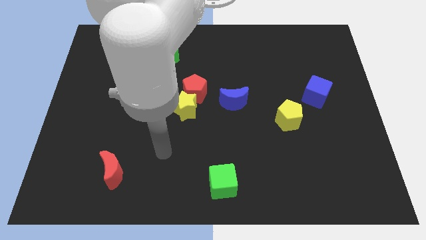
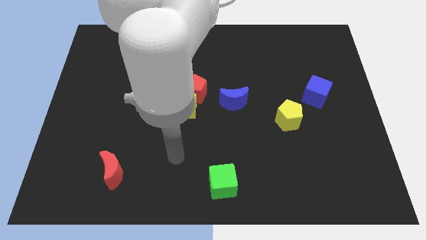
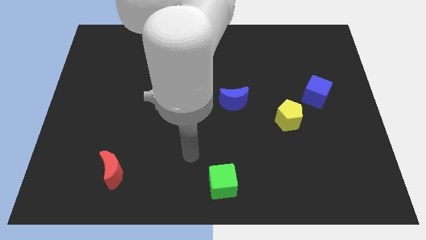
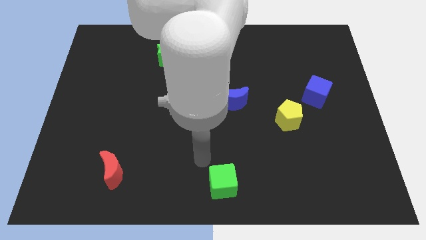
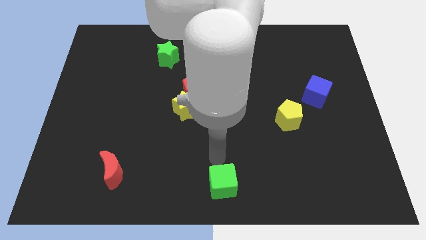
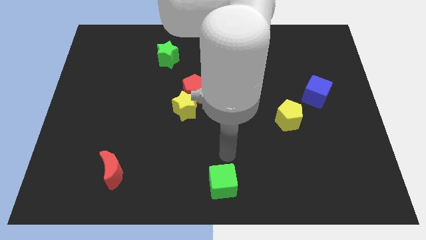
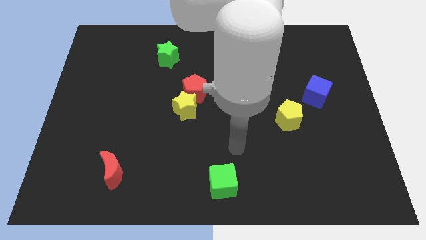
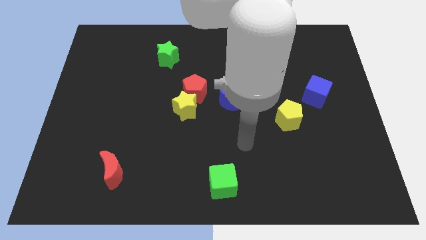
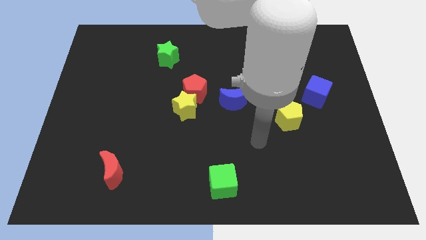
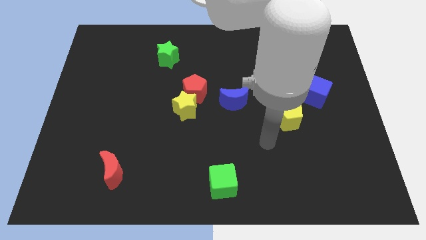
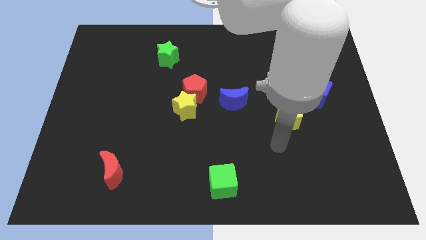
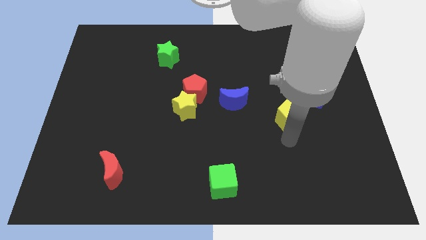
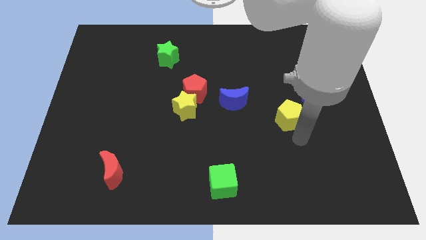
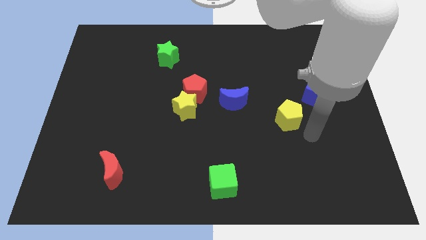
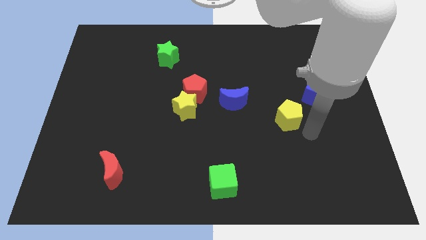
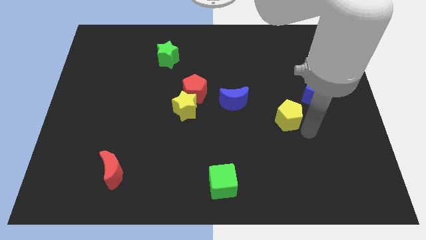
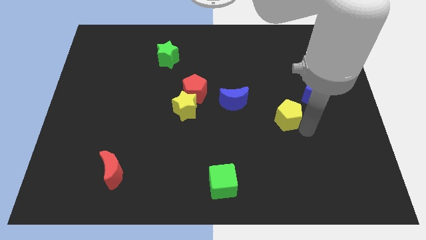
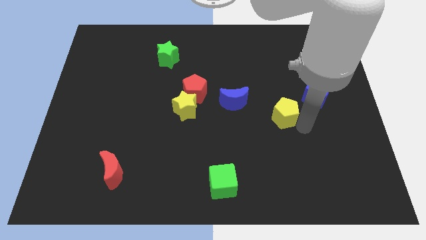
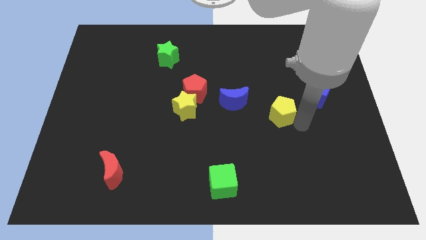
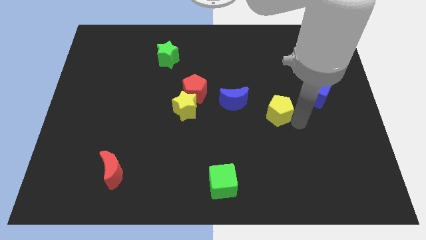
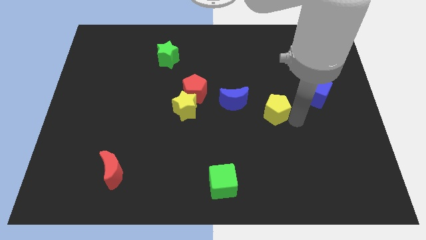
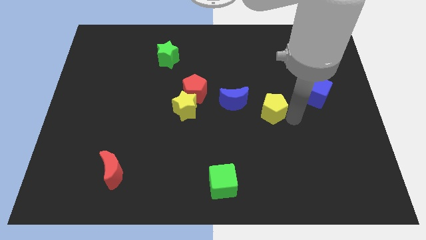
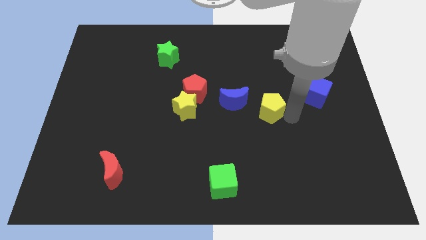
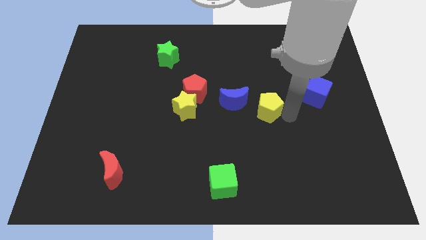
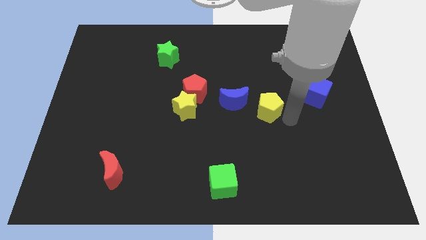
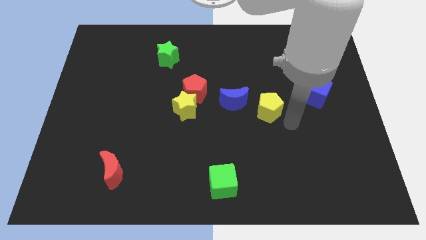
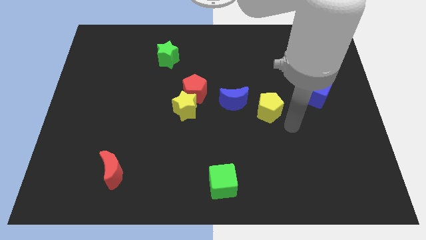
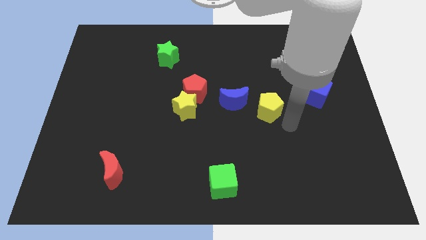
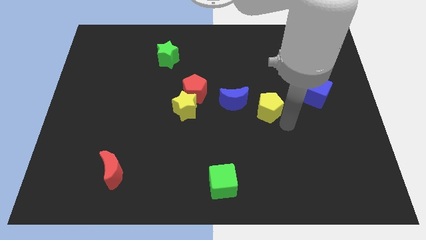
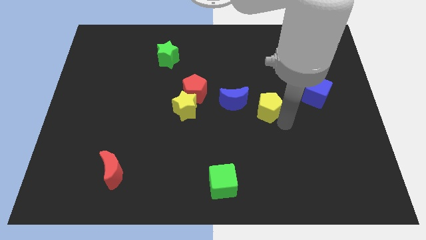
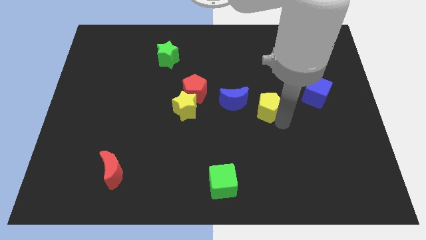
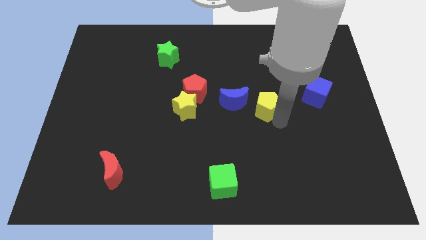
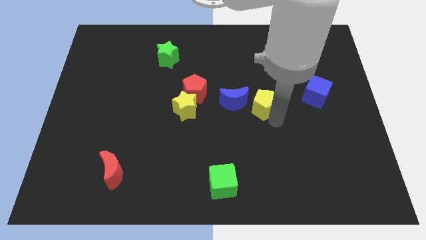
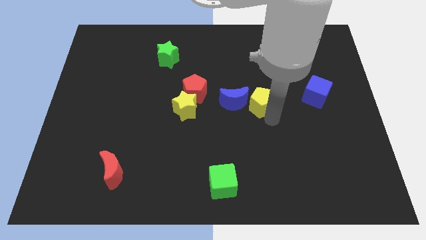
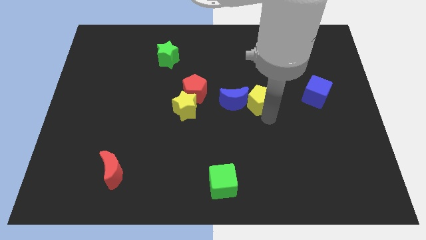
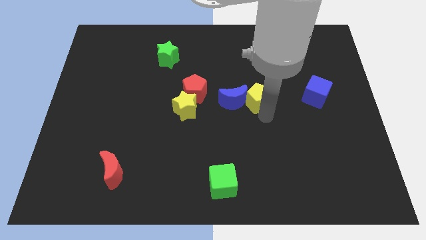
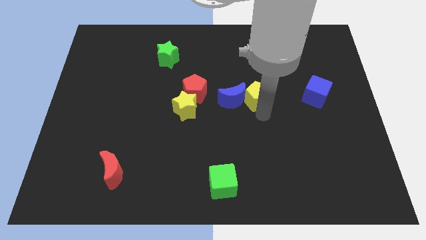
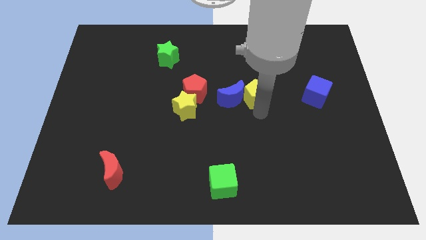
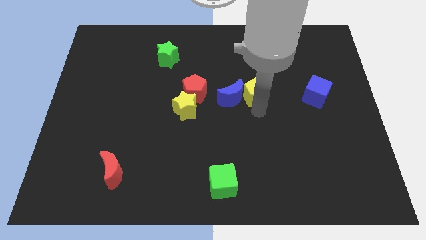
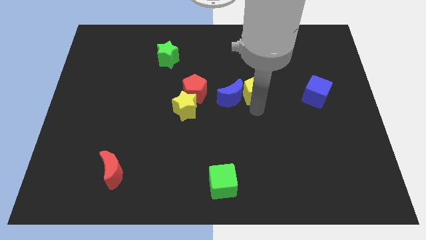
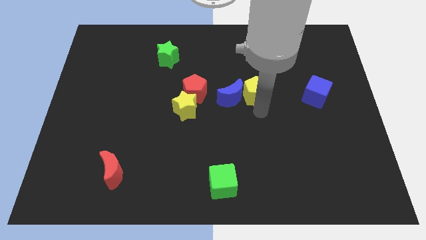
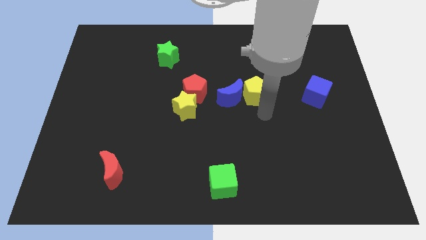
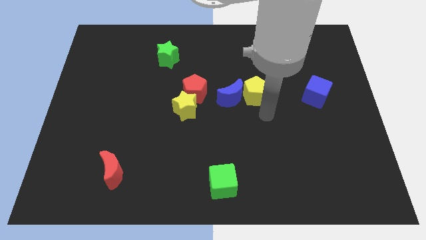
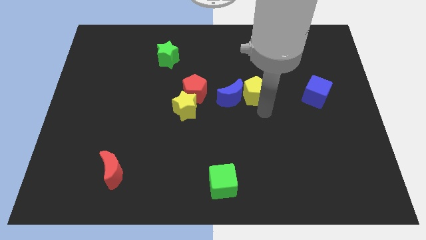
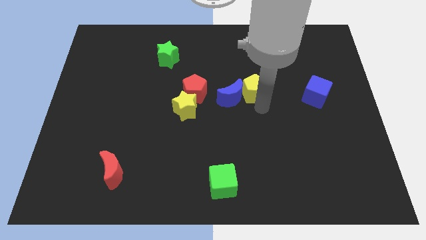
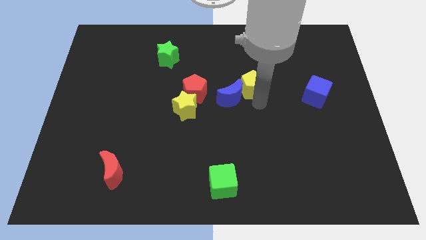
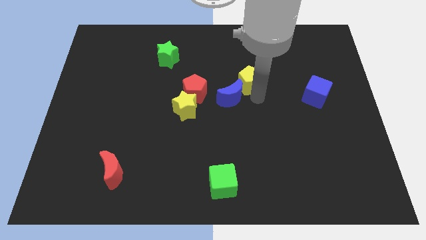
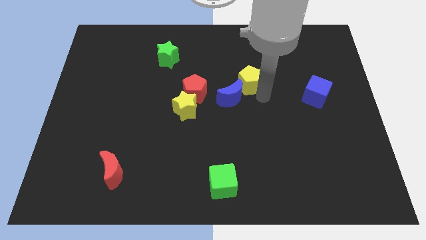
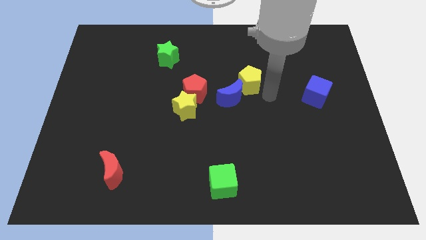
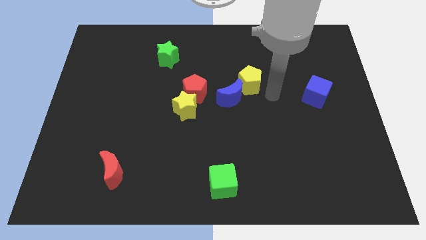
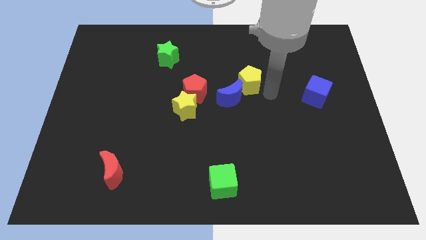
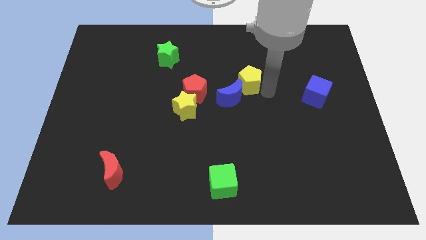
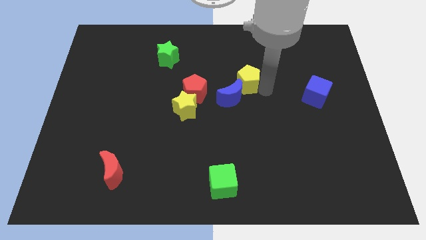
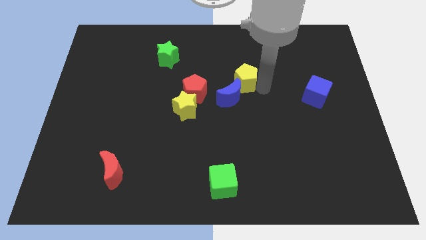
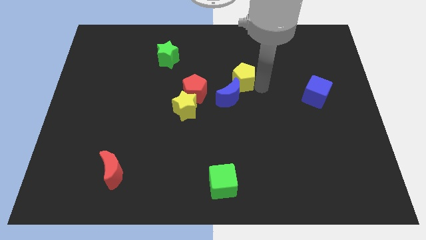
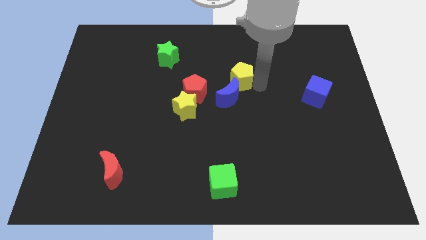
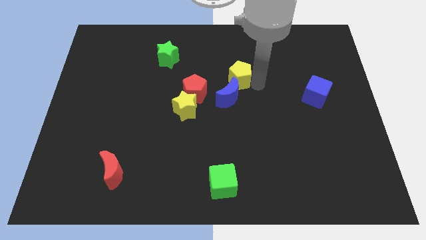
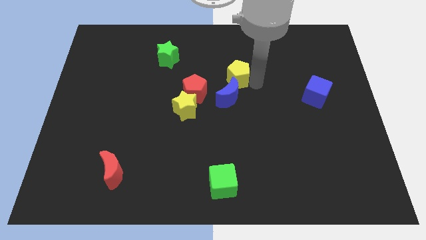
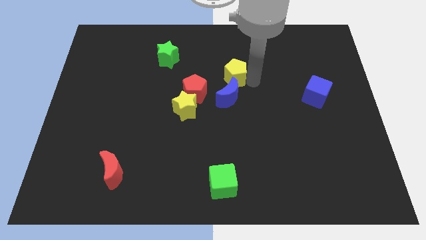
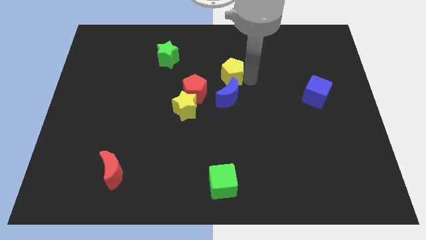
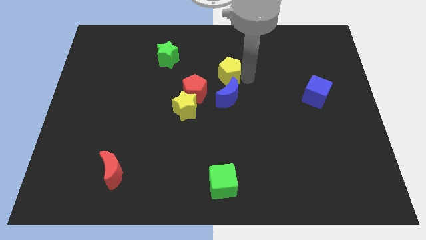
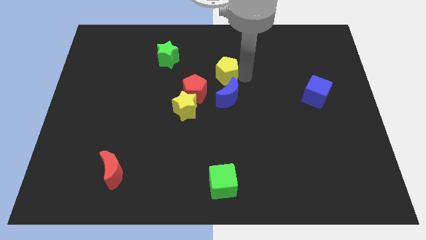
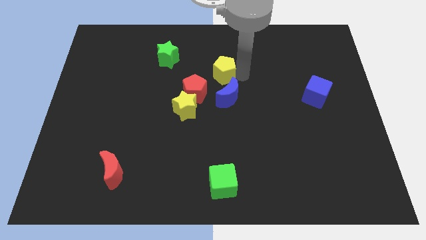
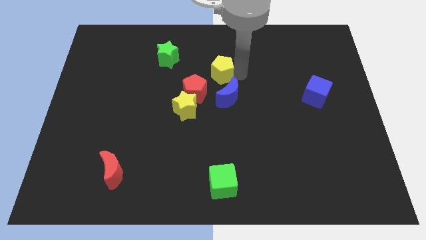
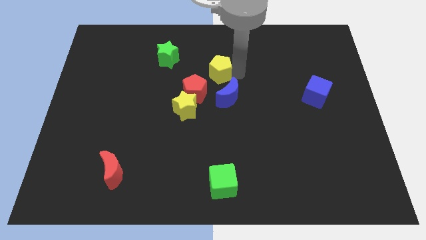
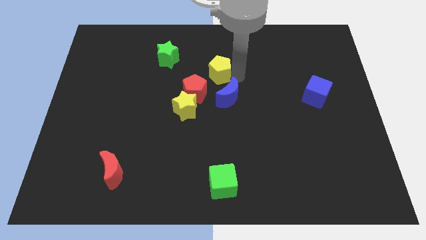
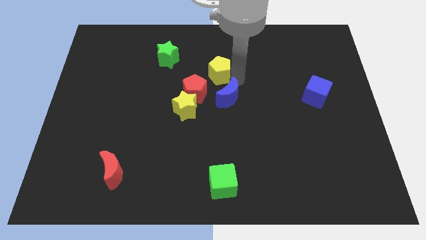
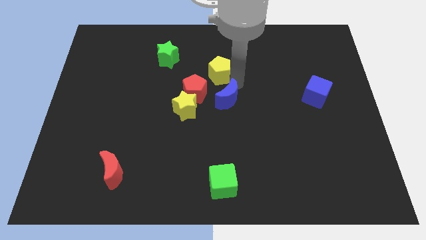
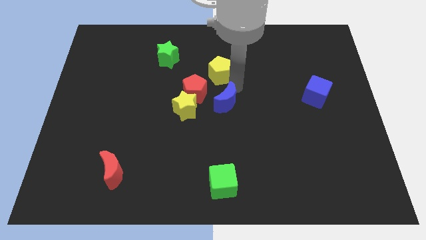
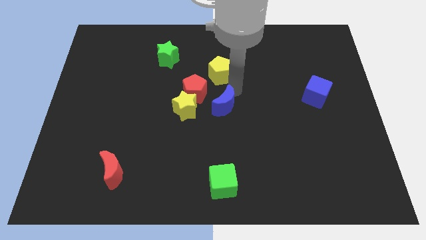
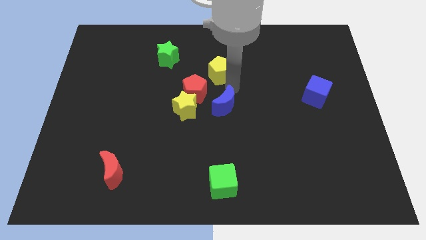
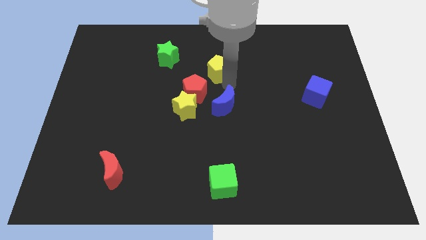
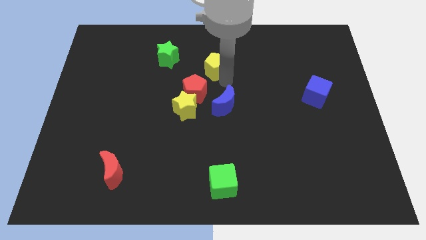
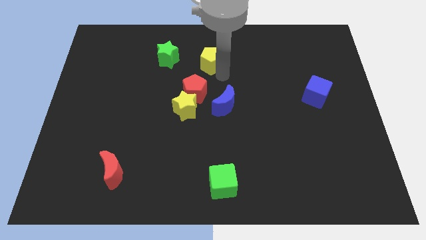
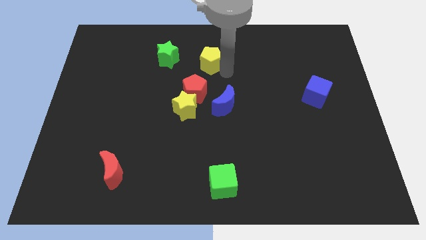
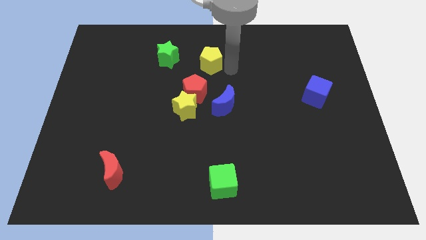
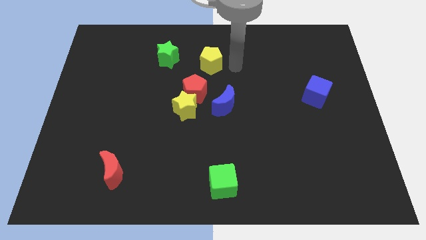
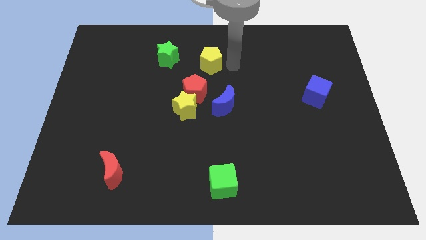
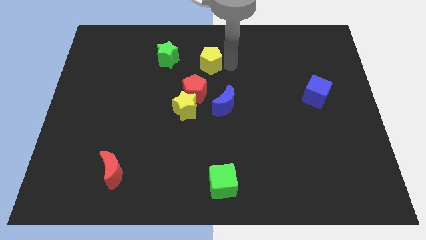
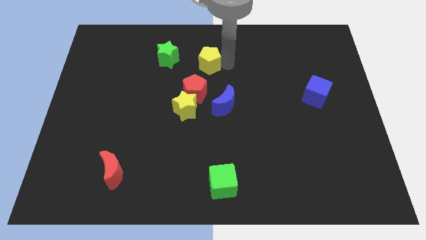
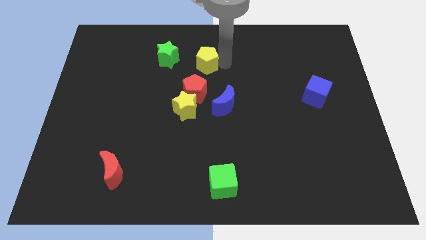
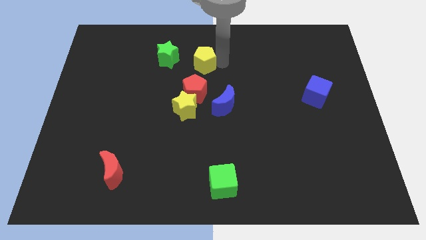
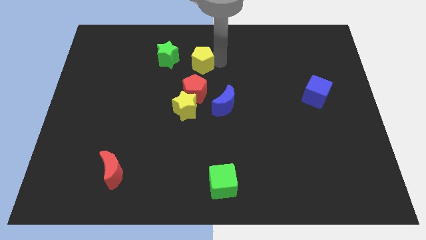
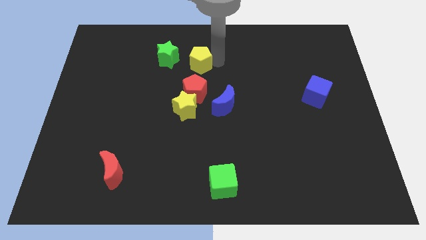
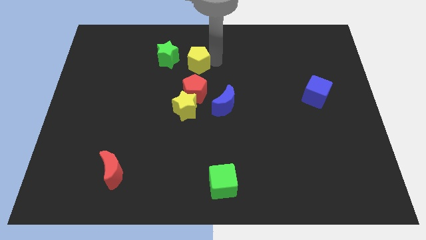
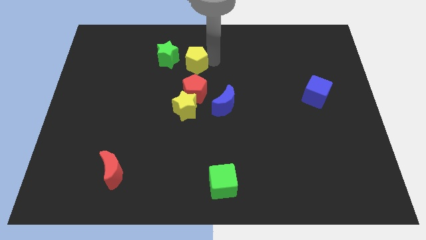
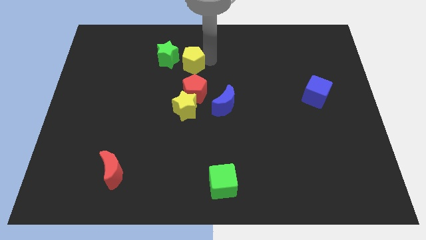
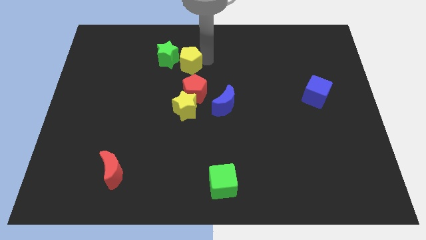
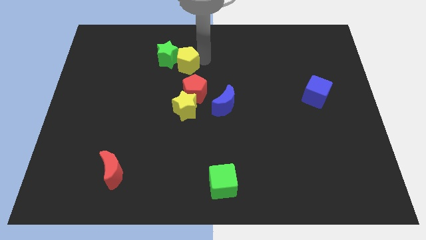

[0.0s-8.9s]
push the yellow pentagon towards the green star
